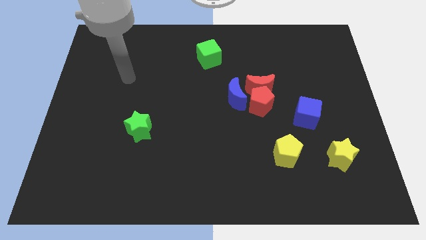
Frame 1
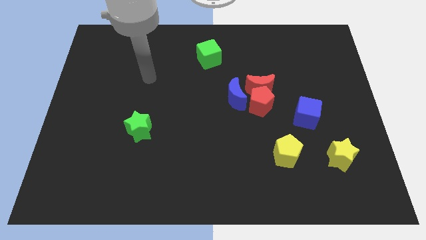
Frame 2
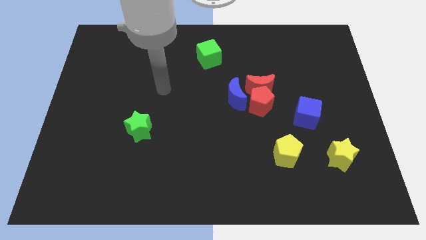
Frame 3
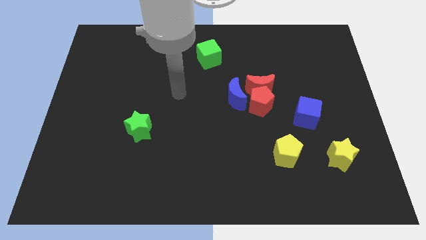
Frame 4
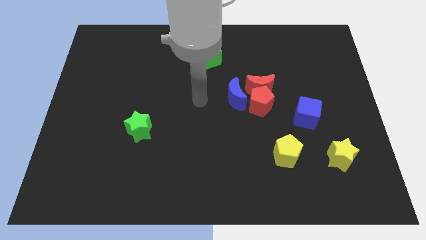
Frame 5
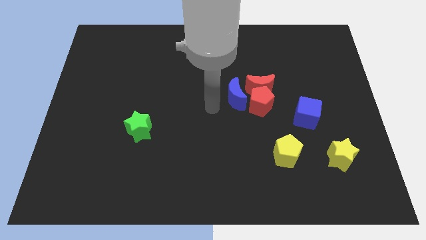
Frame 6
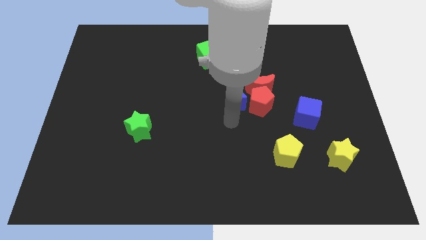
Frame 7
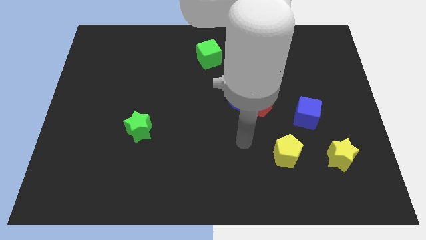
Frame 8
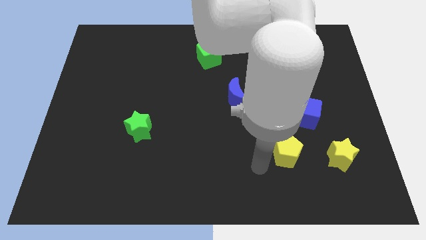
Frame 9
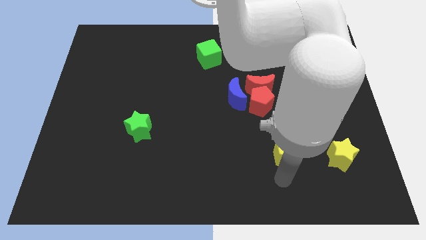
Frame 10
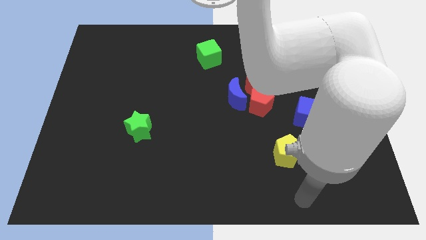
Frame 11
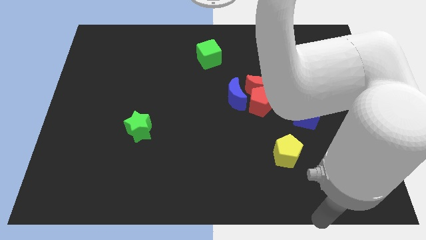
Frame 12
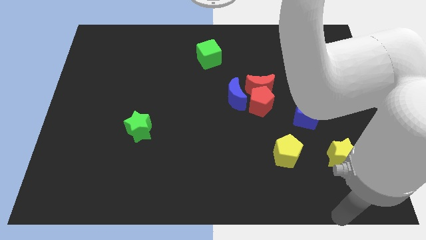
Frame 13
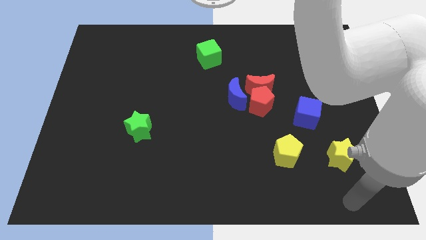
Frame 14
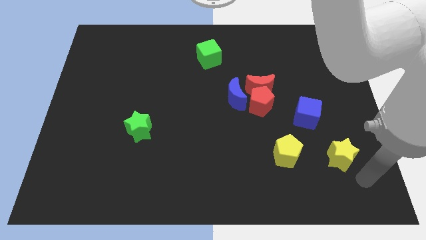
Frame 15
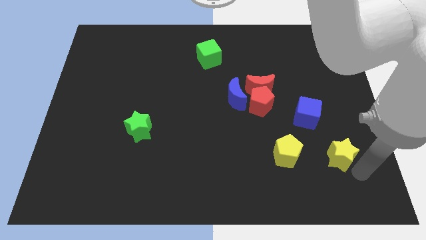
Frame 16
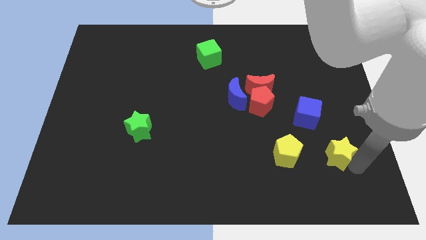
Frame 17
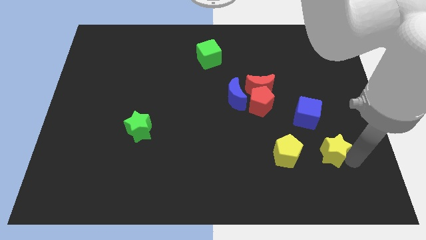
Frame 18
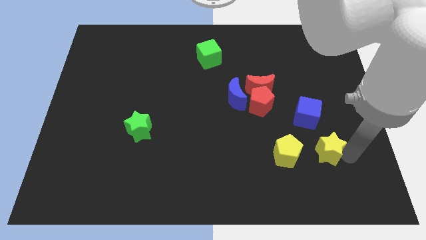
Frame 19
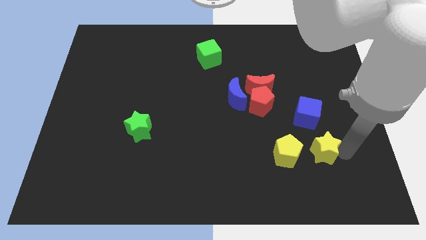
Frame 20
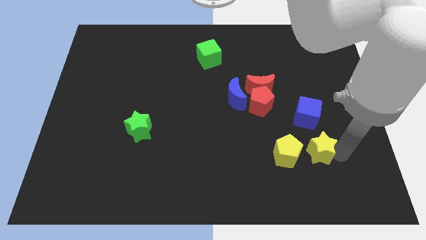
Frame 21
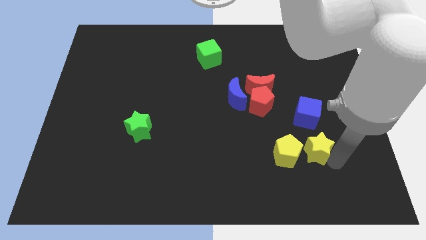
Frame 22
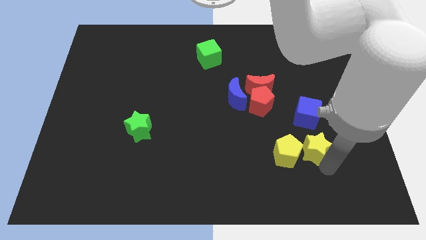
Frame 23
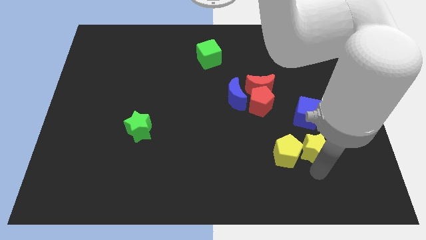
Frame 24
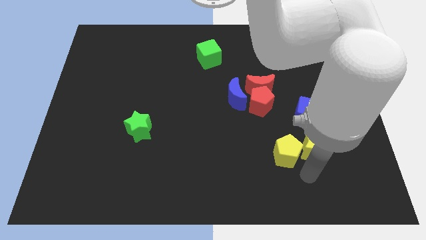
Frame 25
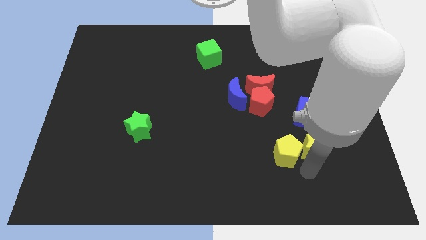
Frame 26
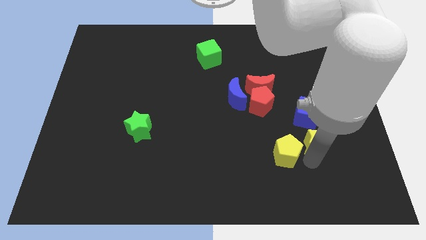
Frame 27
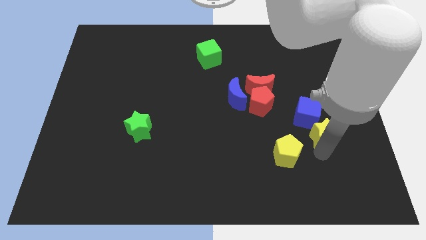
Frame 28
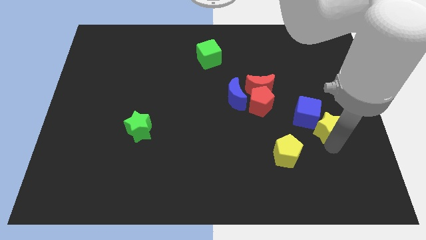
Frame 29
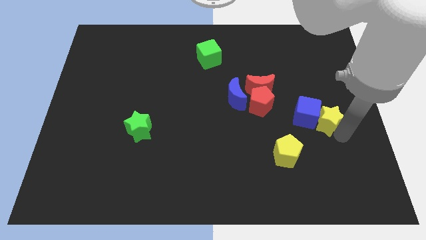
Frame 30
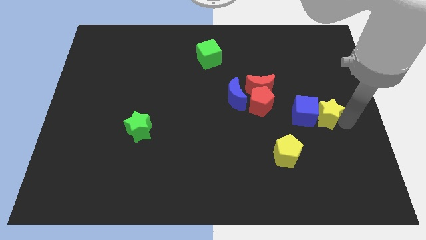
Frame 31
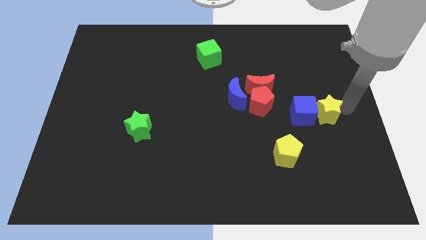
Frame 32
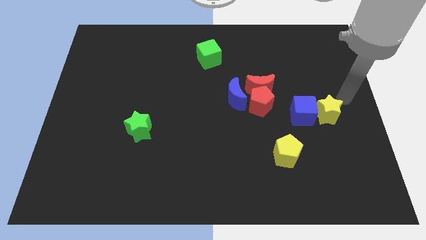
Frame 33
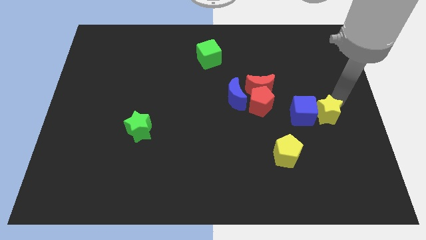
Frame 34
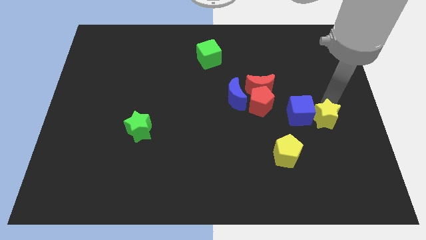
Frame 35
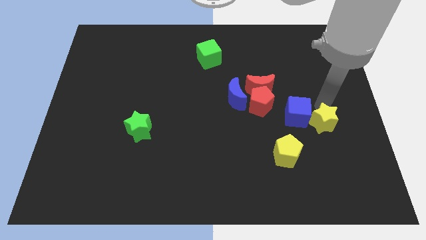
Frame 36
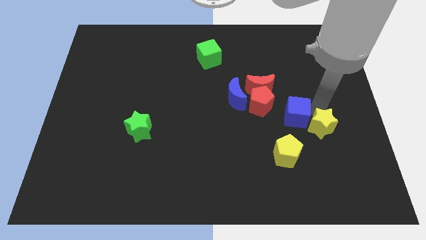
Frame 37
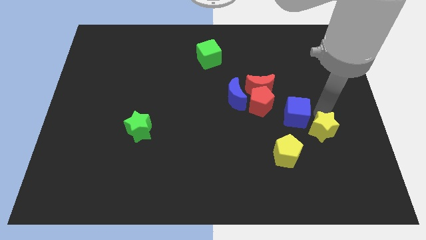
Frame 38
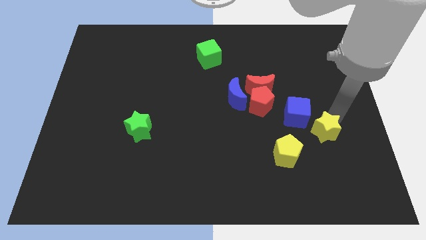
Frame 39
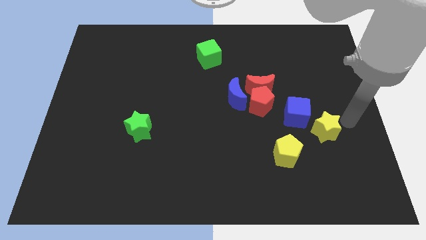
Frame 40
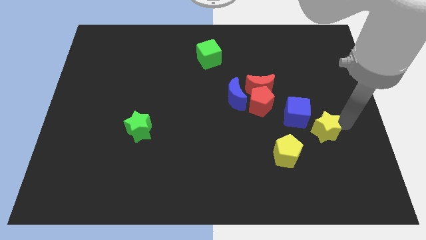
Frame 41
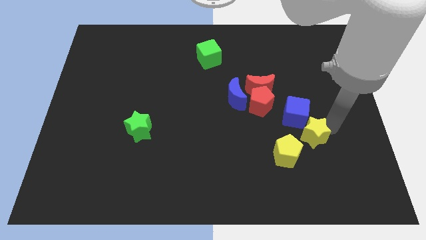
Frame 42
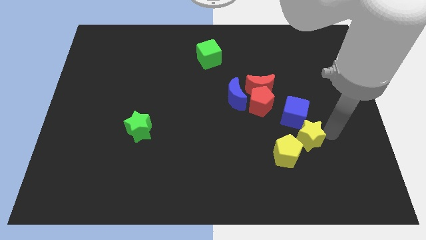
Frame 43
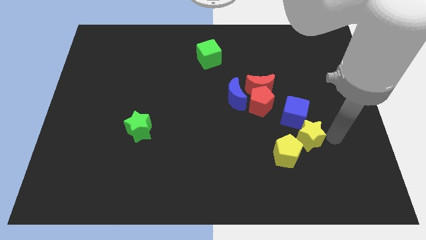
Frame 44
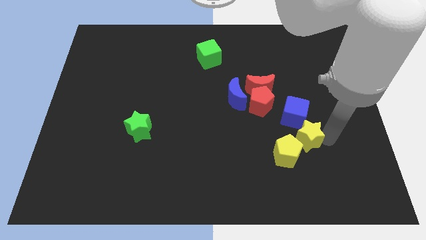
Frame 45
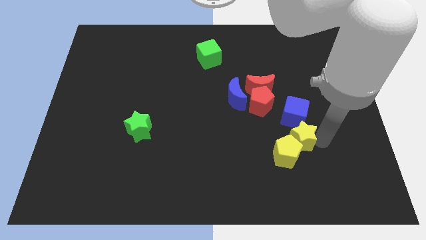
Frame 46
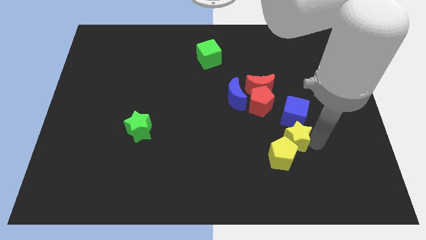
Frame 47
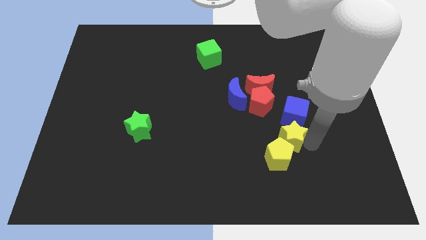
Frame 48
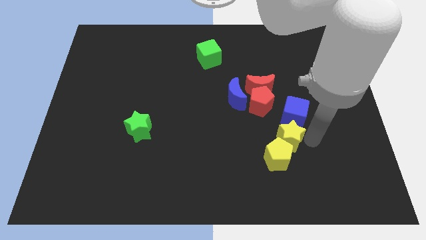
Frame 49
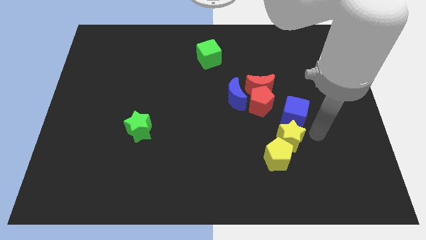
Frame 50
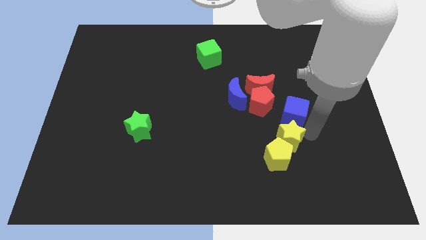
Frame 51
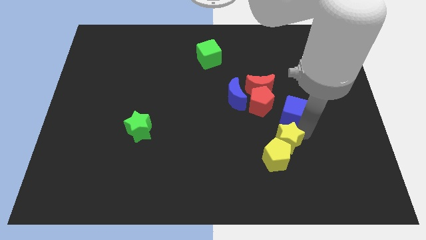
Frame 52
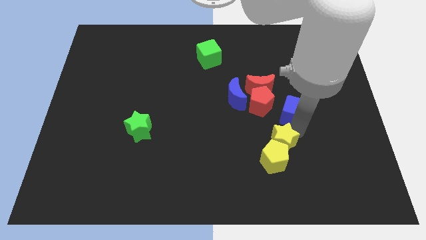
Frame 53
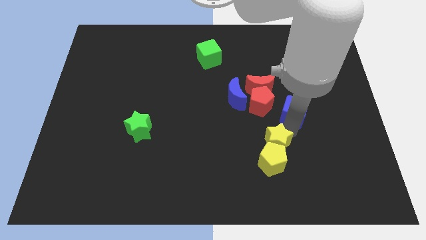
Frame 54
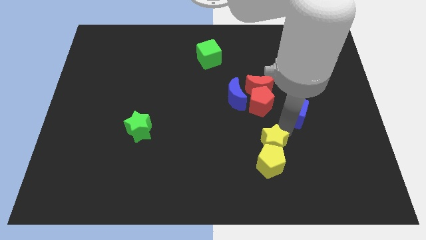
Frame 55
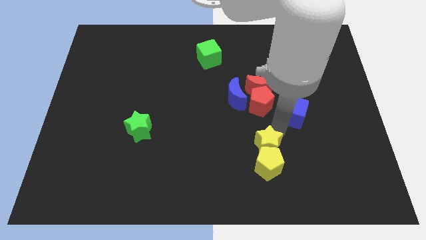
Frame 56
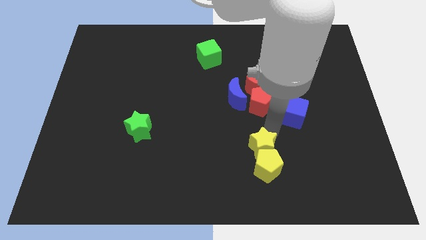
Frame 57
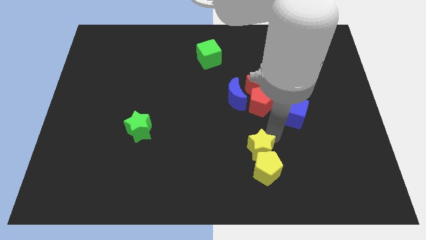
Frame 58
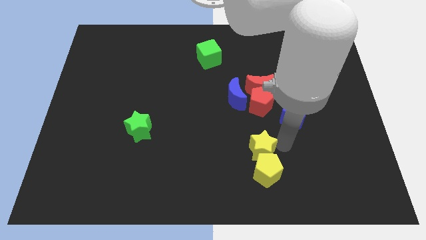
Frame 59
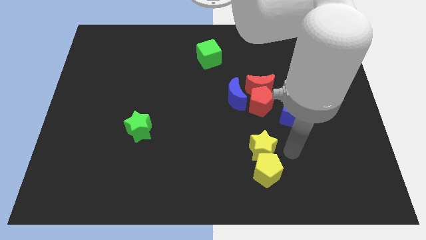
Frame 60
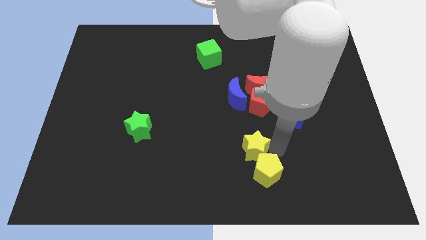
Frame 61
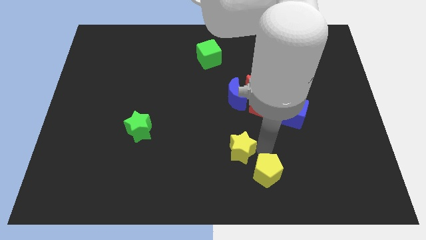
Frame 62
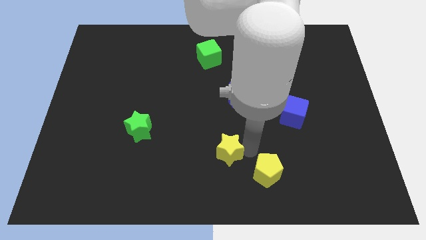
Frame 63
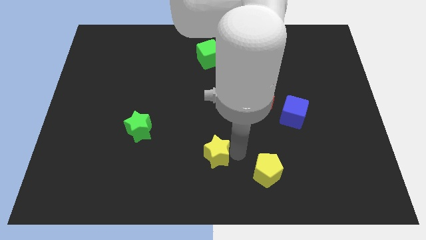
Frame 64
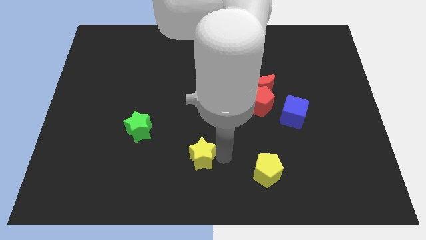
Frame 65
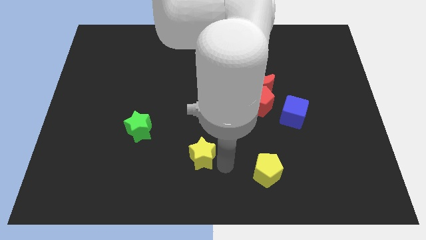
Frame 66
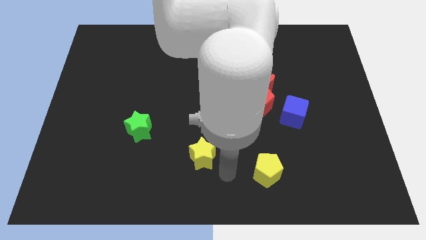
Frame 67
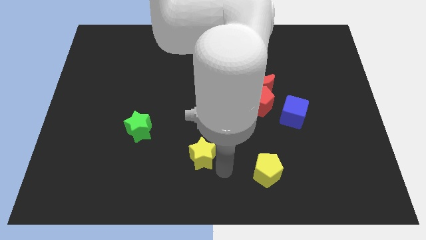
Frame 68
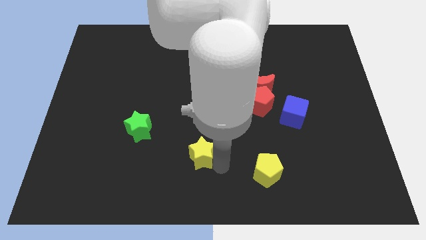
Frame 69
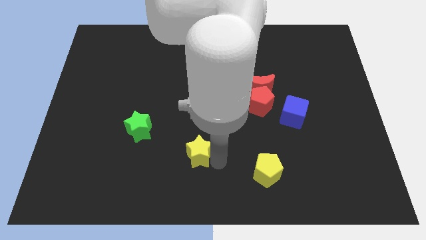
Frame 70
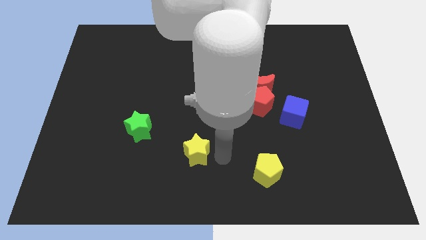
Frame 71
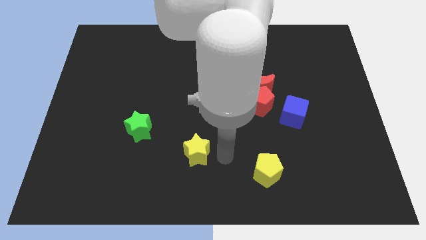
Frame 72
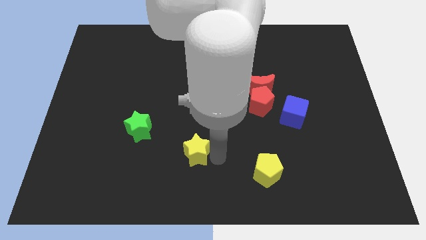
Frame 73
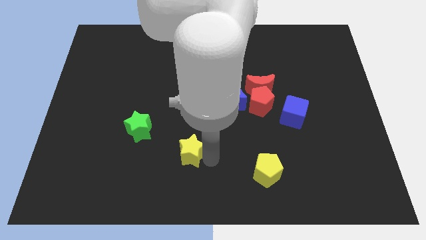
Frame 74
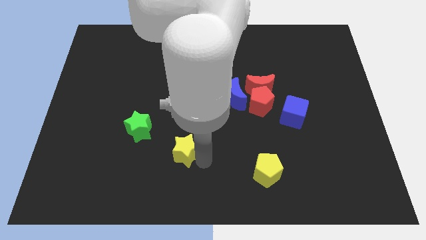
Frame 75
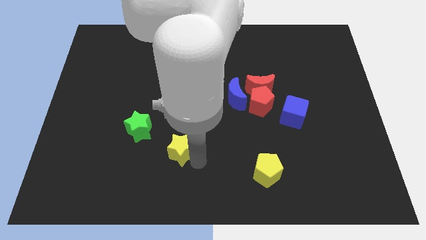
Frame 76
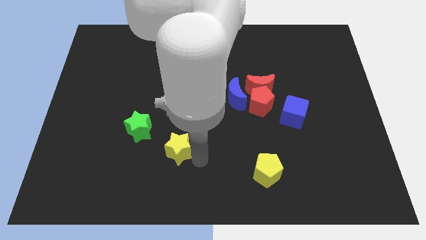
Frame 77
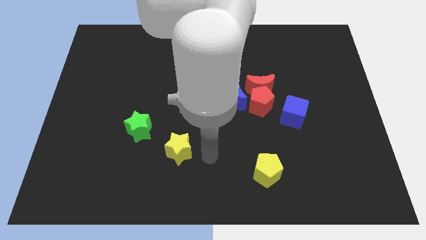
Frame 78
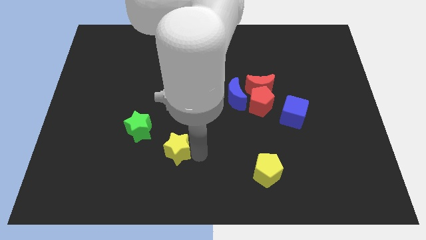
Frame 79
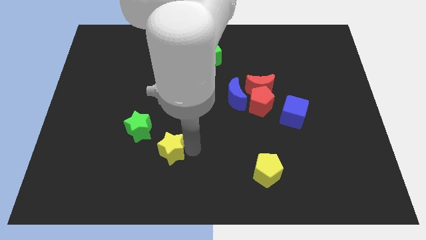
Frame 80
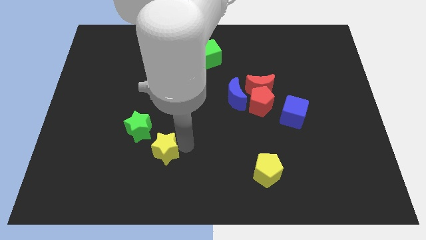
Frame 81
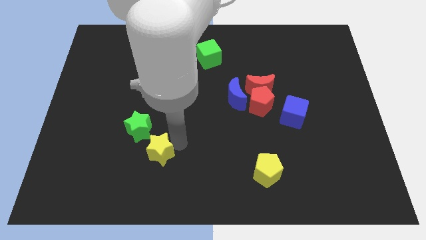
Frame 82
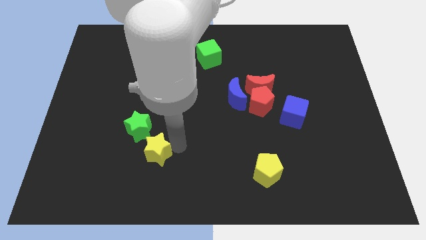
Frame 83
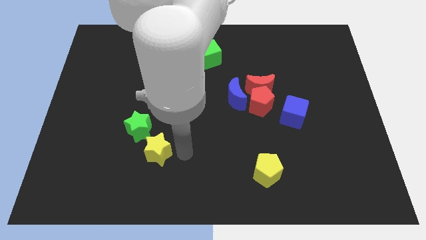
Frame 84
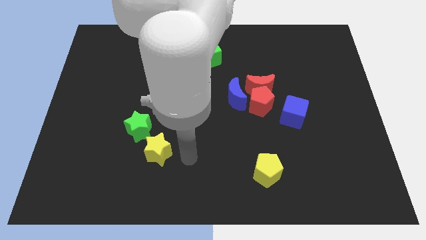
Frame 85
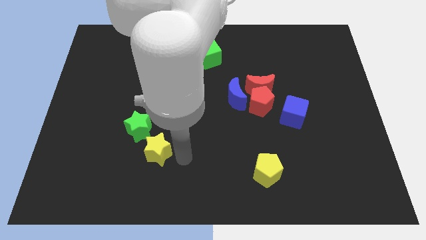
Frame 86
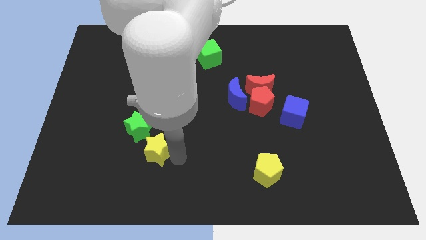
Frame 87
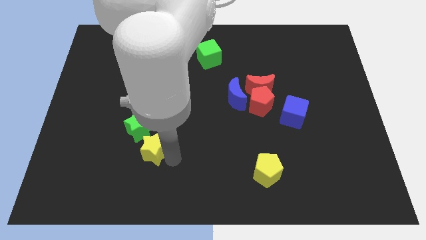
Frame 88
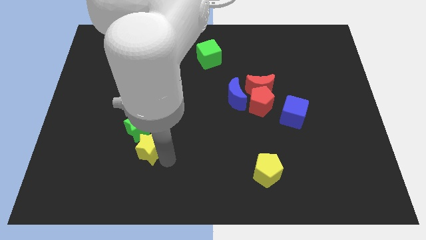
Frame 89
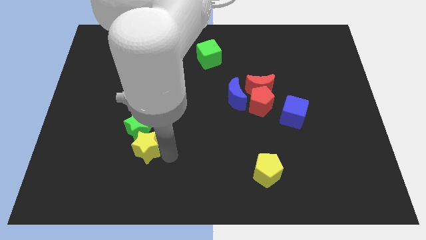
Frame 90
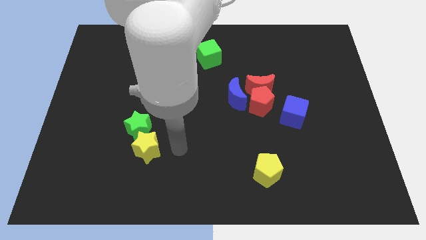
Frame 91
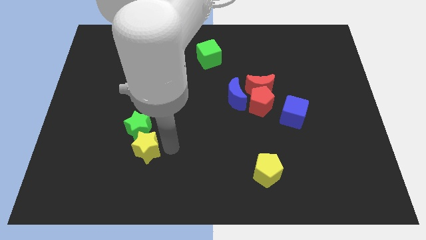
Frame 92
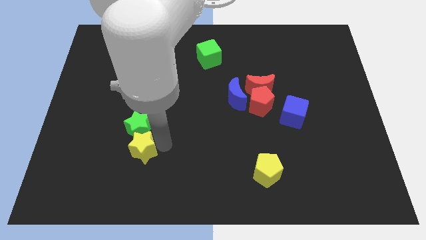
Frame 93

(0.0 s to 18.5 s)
push the yellow star to the bottom left side of the green star
